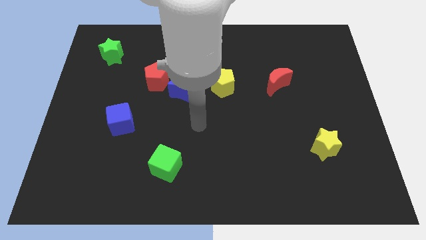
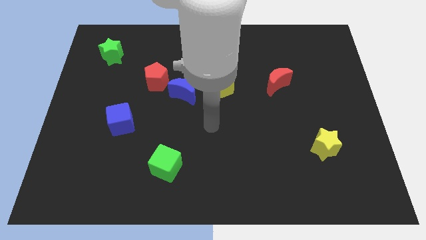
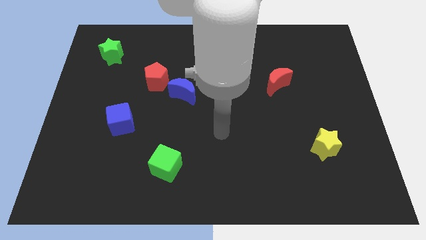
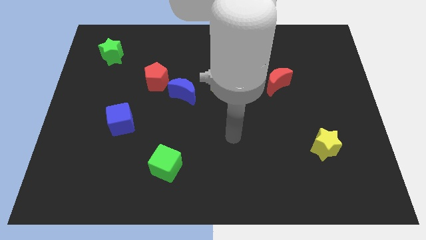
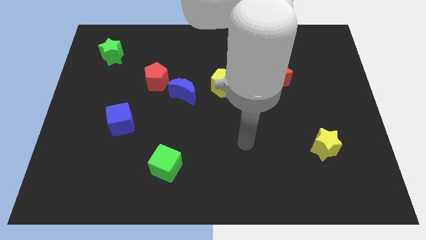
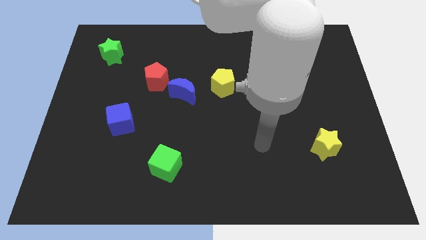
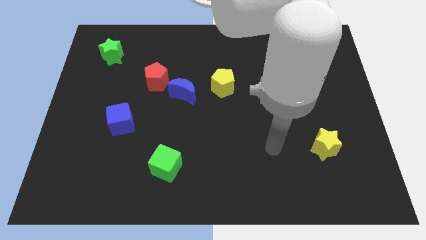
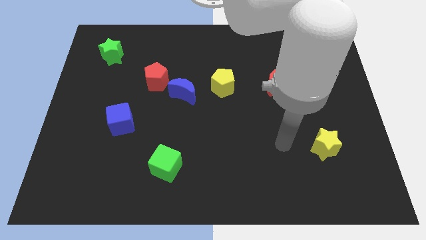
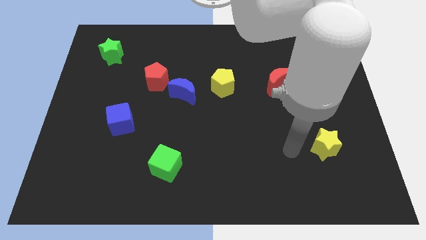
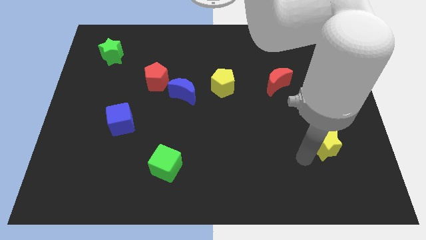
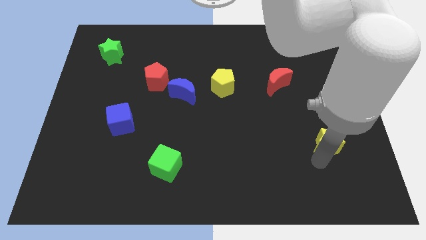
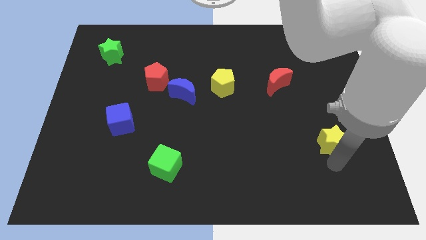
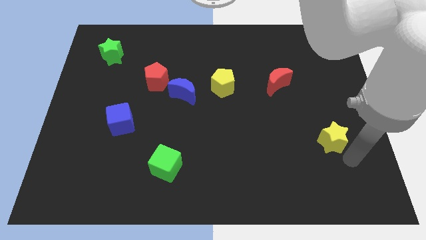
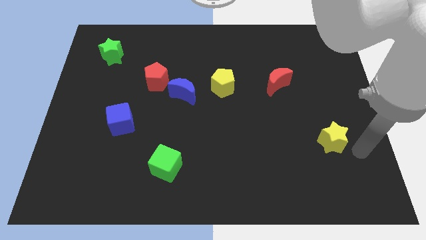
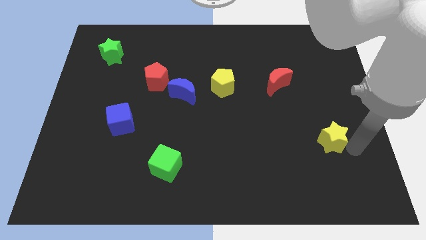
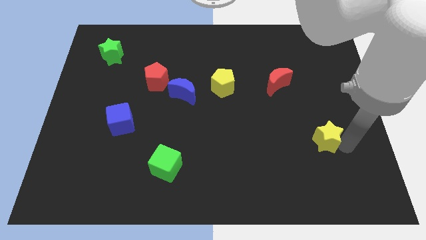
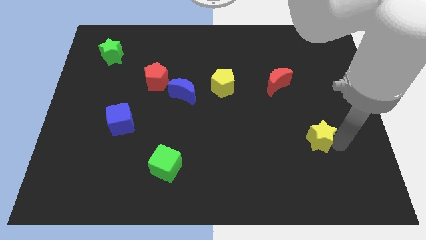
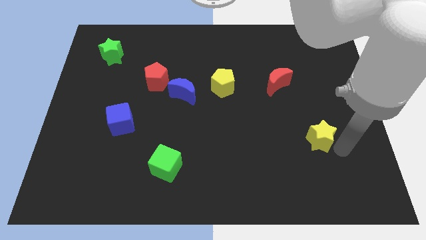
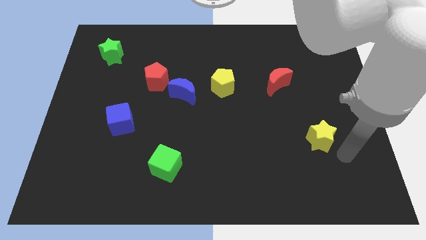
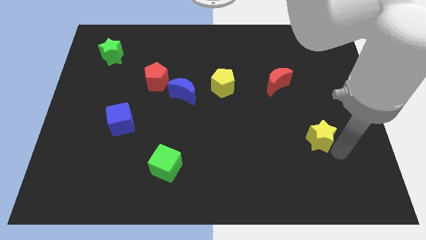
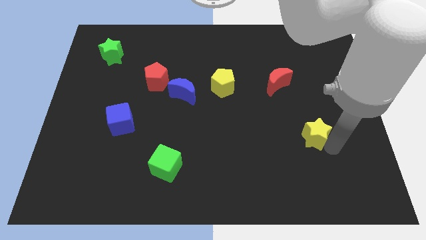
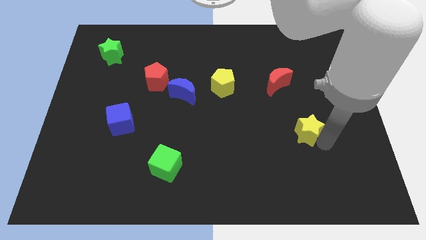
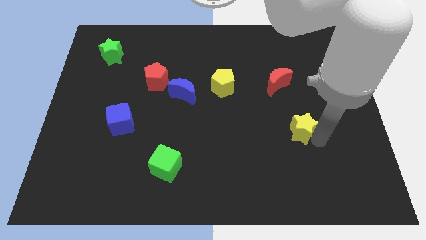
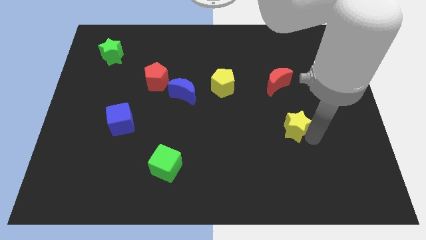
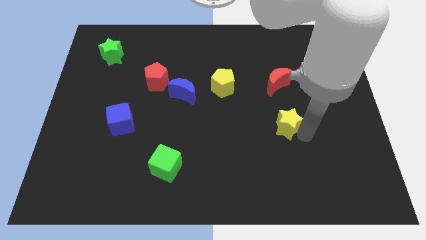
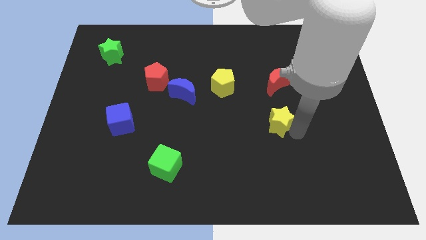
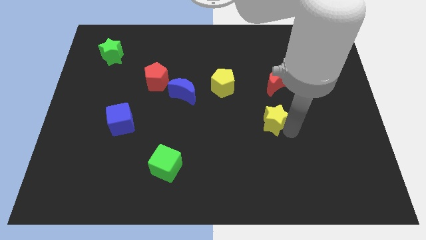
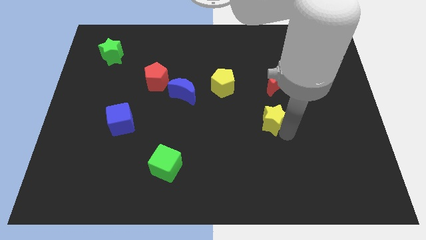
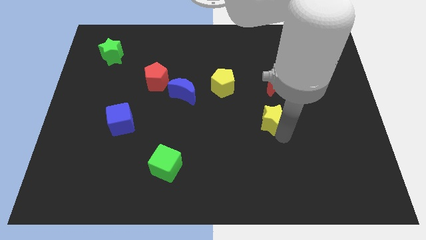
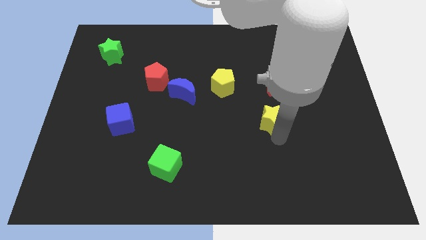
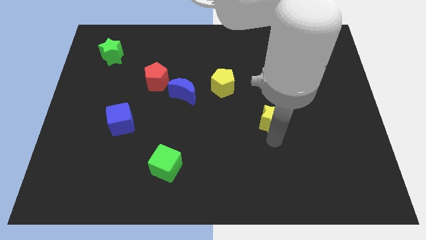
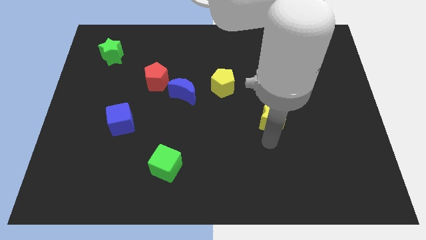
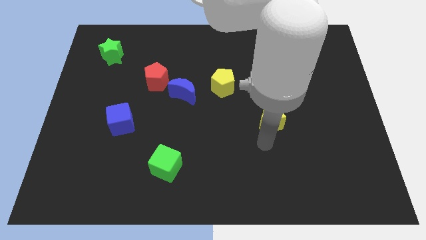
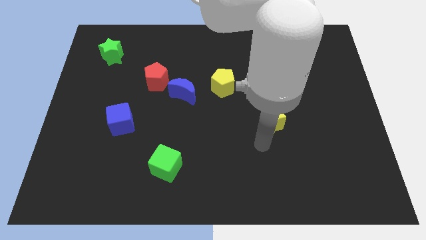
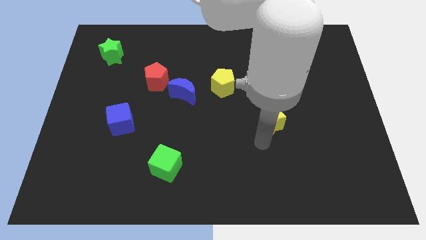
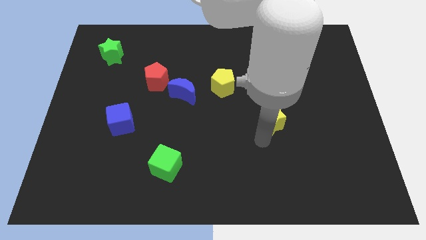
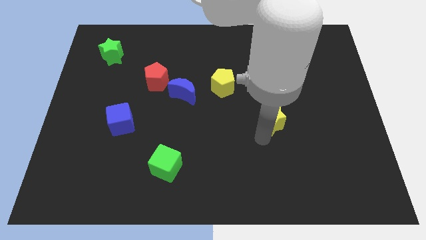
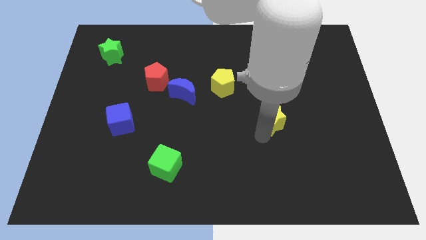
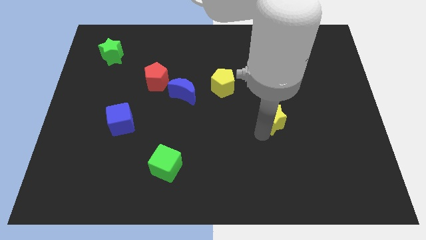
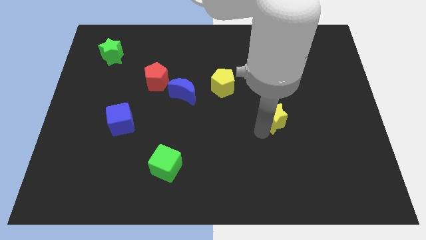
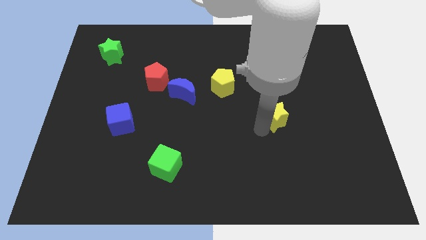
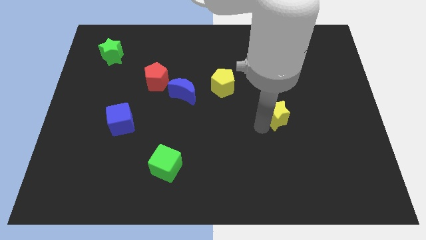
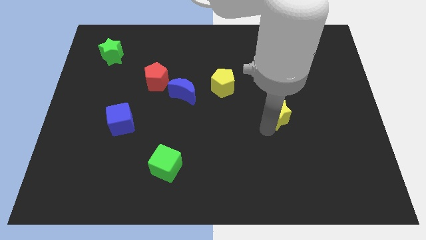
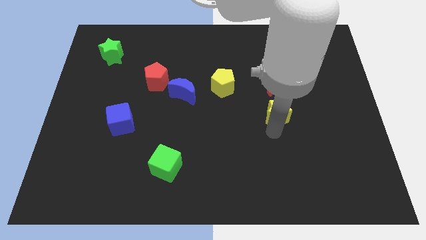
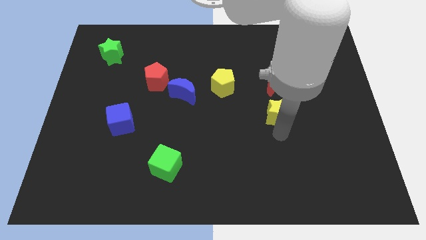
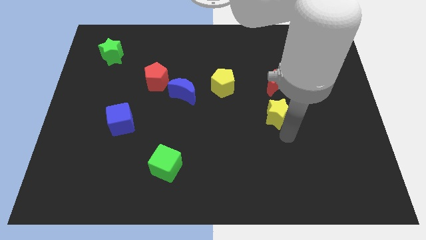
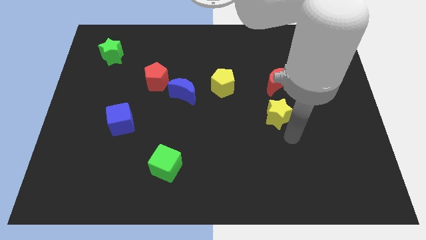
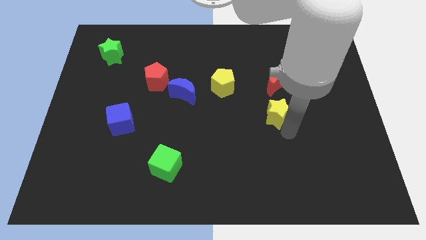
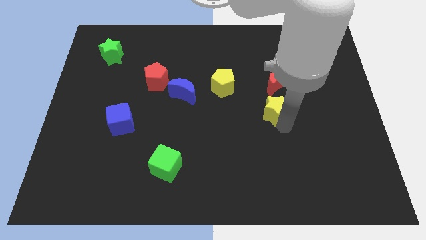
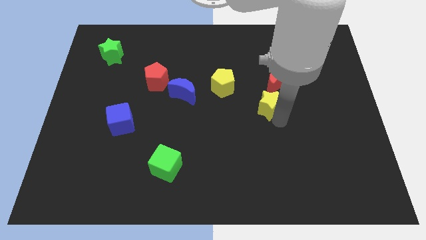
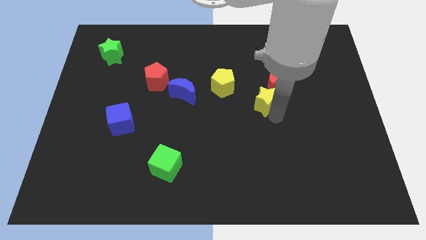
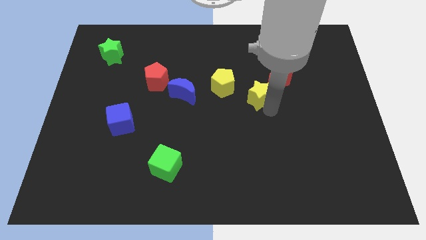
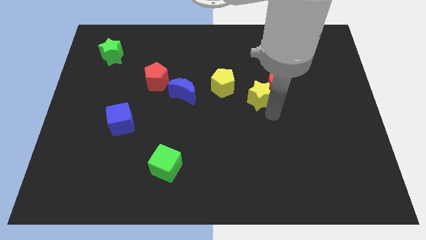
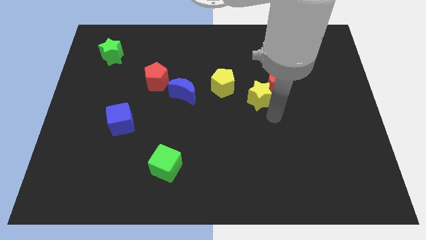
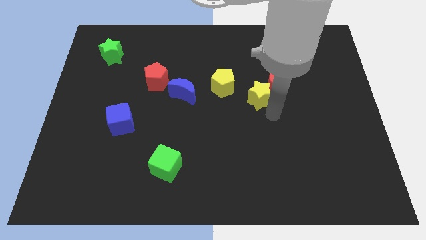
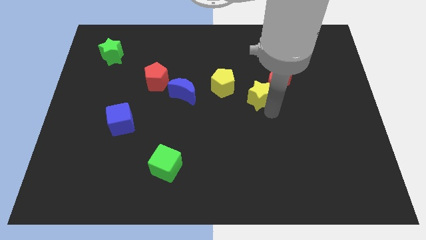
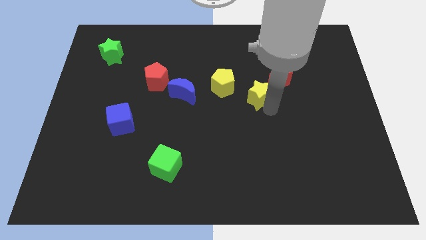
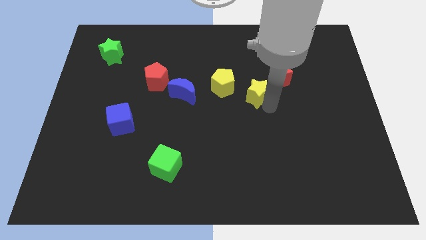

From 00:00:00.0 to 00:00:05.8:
push the yellow star upwards and left diagonally

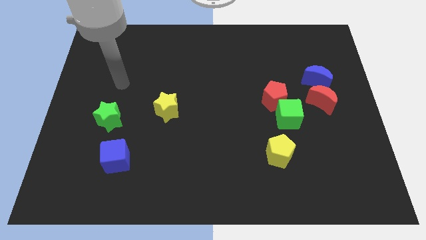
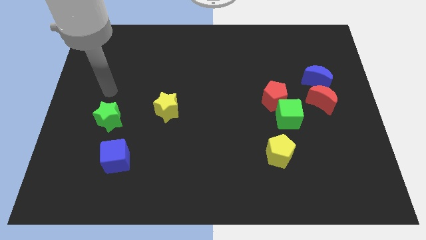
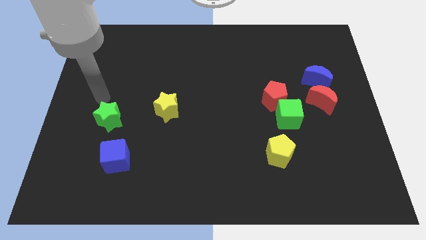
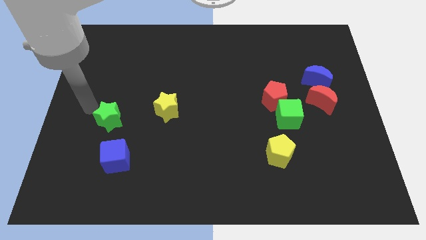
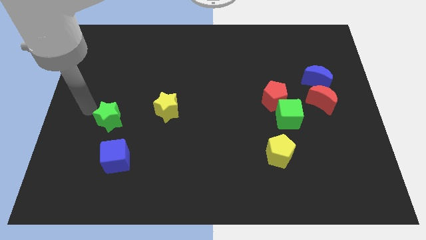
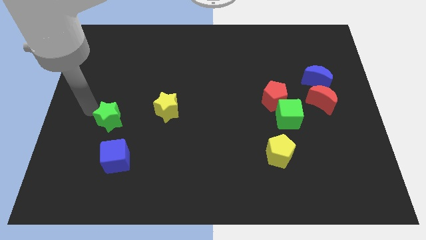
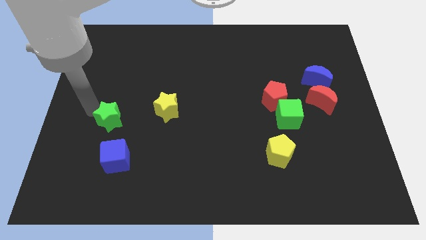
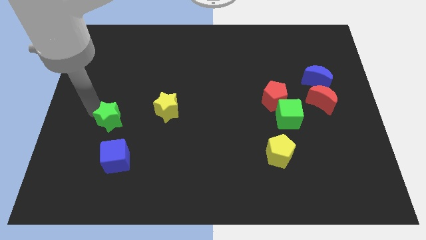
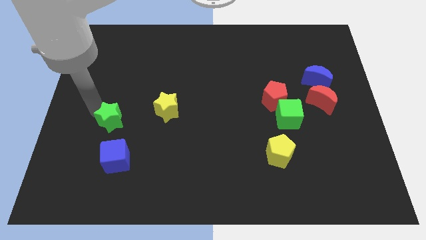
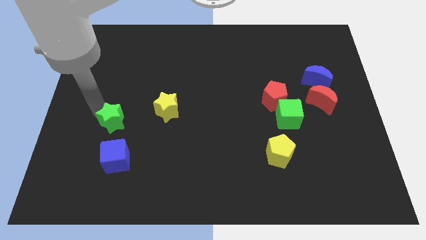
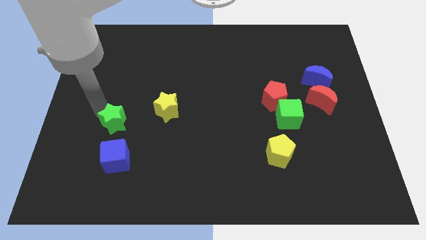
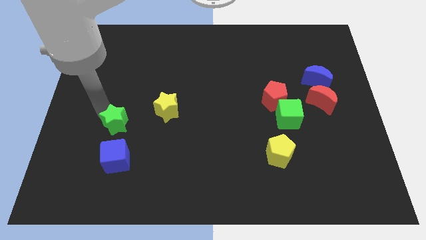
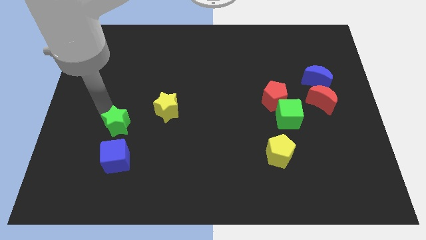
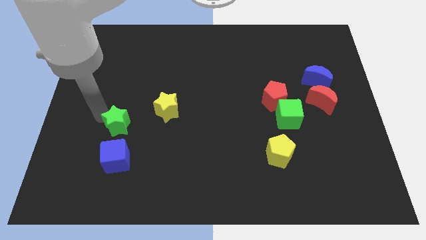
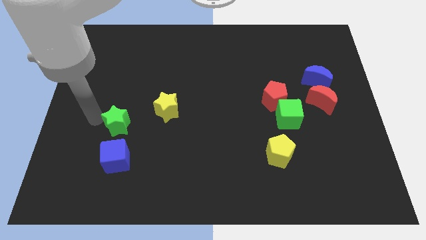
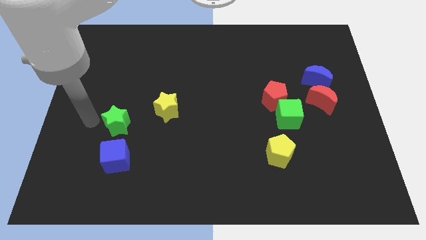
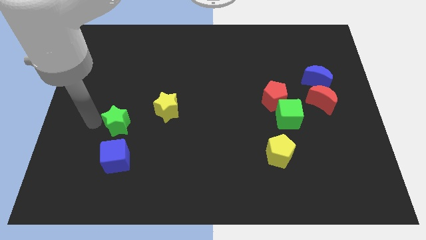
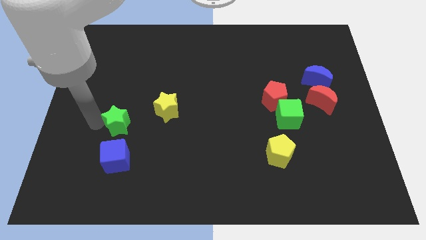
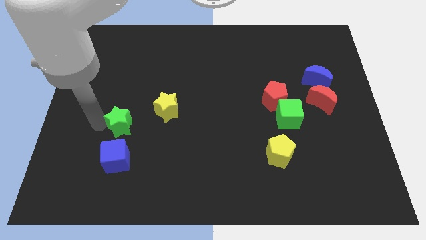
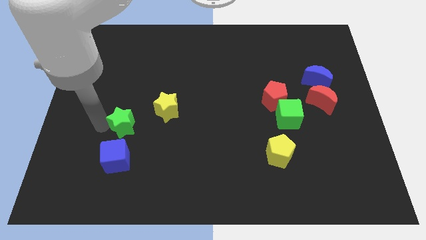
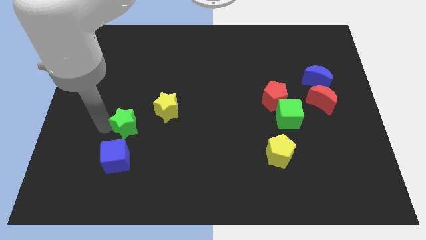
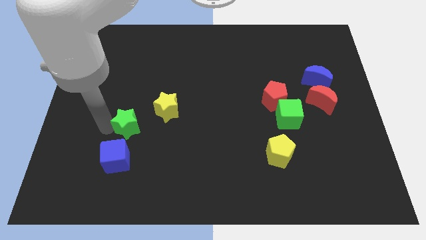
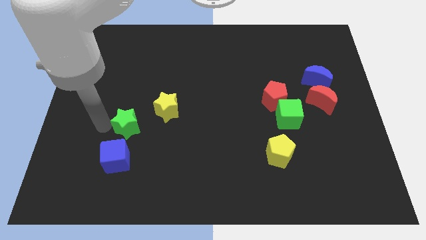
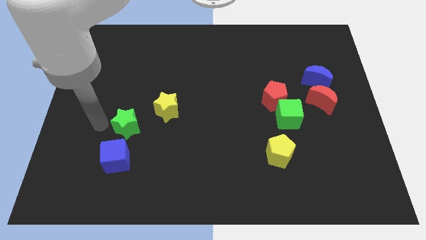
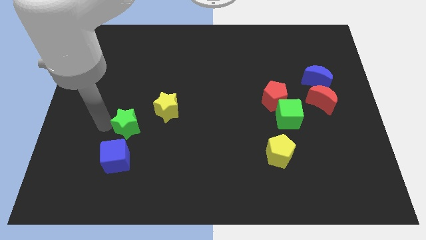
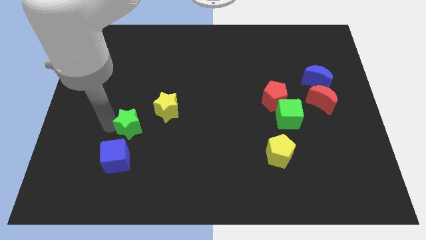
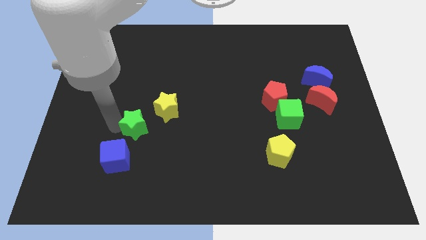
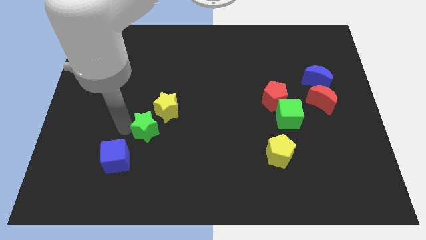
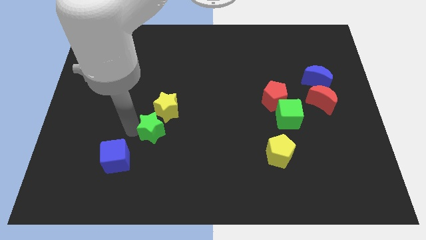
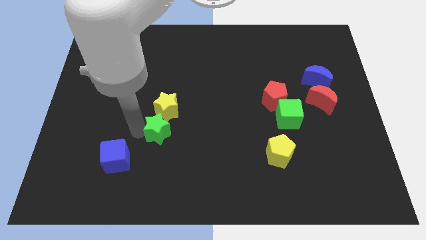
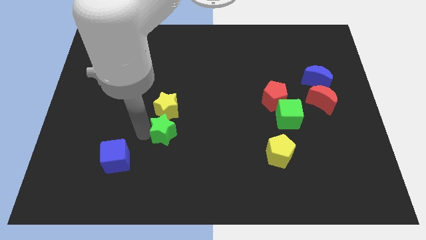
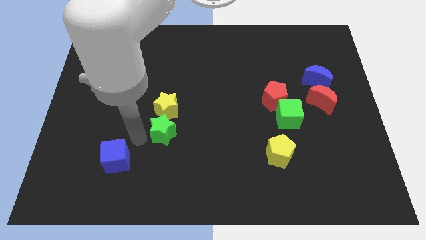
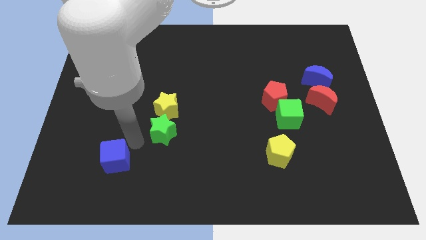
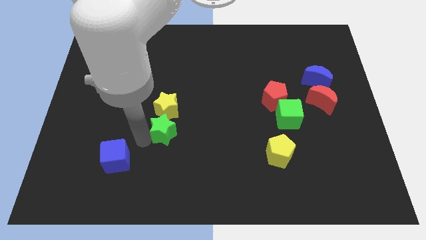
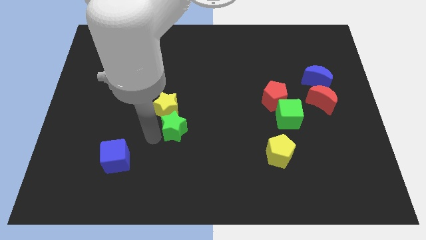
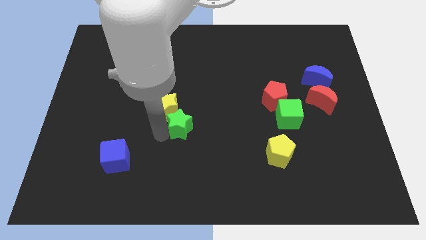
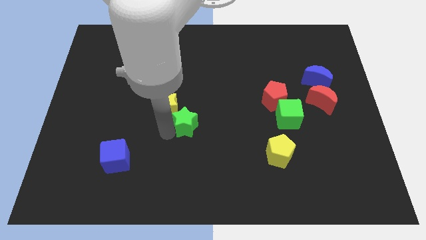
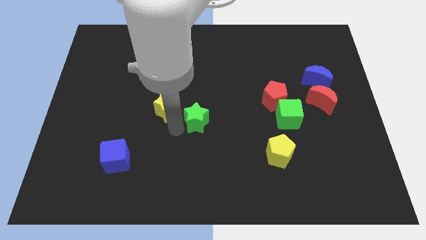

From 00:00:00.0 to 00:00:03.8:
push the green star right
